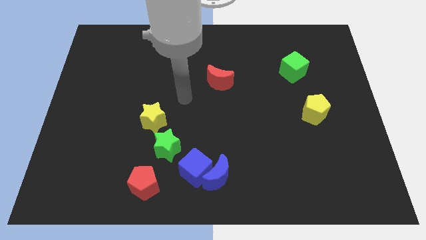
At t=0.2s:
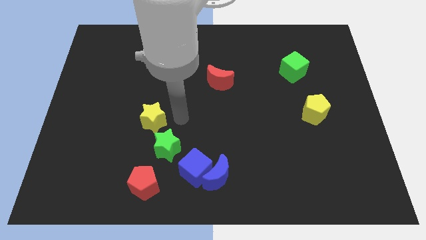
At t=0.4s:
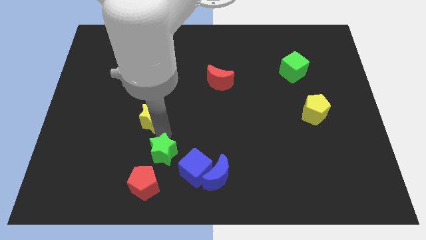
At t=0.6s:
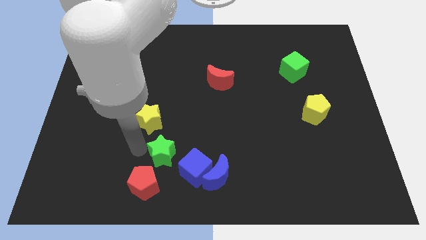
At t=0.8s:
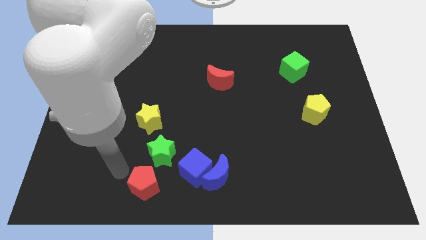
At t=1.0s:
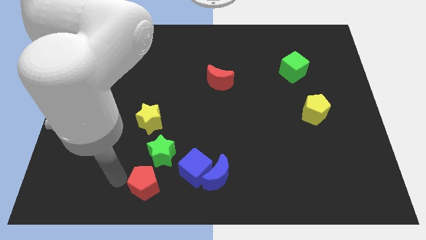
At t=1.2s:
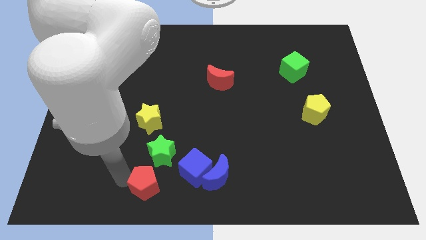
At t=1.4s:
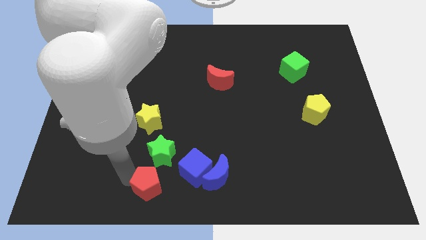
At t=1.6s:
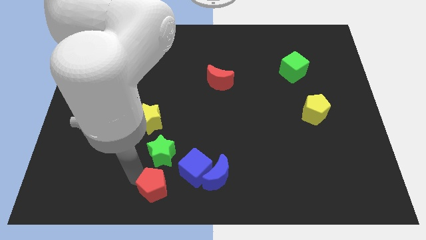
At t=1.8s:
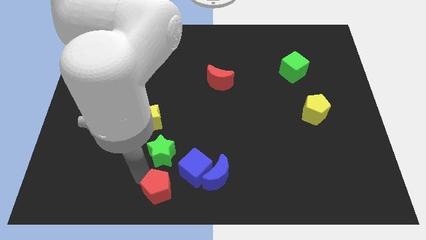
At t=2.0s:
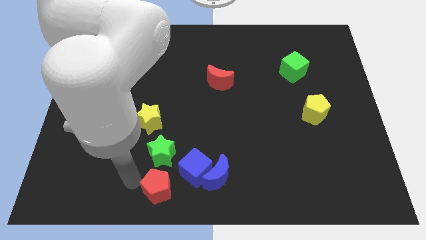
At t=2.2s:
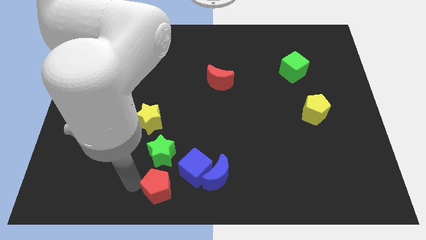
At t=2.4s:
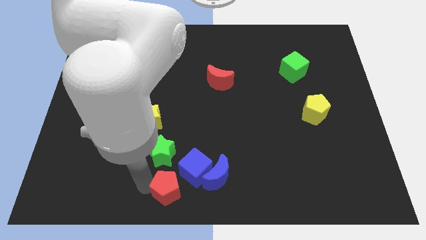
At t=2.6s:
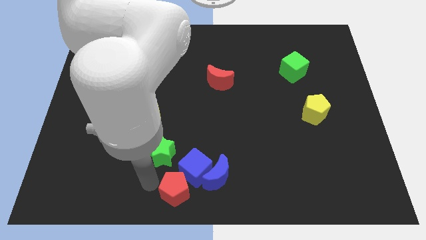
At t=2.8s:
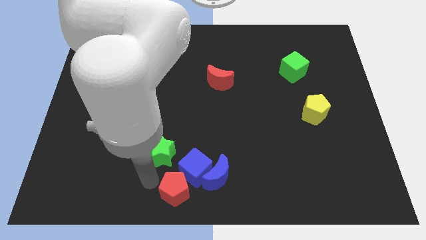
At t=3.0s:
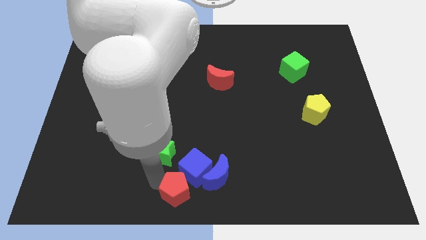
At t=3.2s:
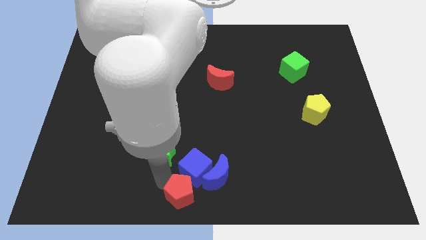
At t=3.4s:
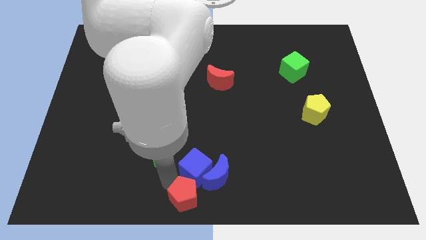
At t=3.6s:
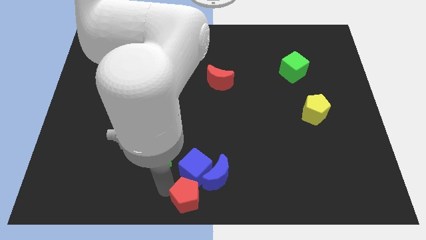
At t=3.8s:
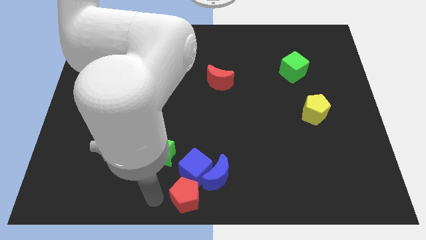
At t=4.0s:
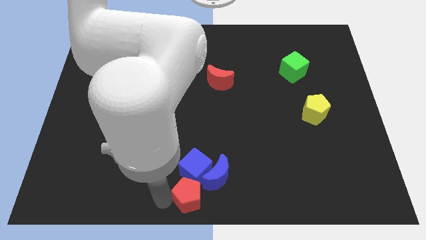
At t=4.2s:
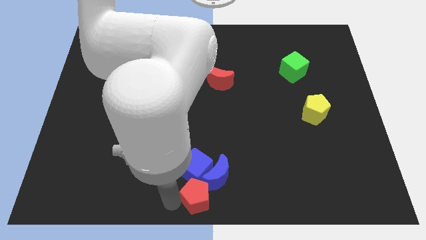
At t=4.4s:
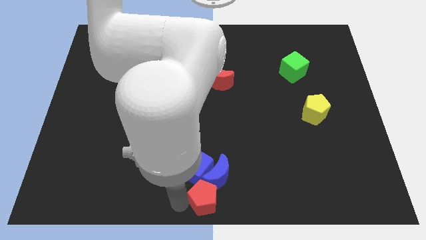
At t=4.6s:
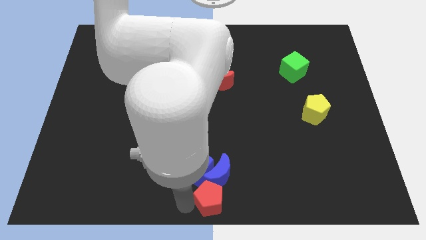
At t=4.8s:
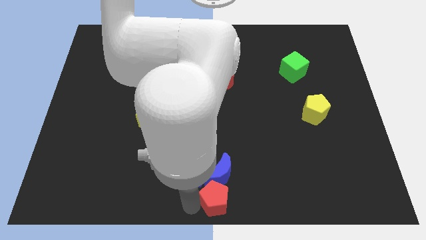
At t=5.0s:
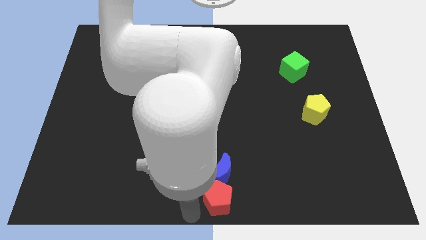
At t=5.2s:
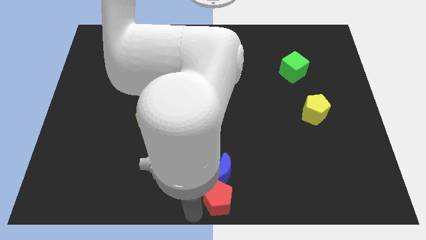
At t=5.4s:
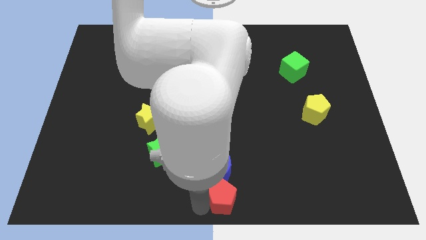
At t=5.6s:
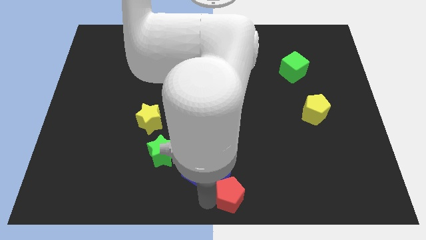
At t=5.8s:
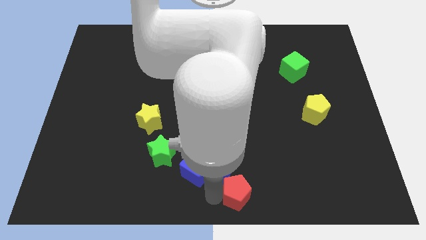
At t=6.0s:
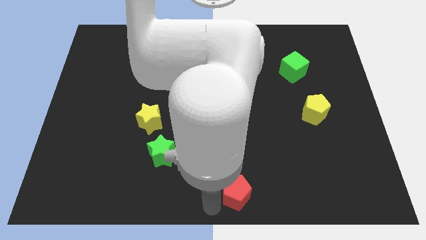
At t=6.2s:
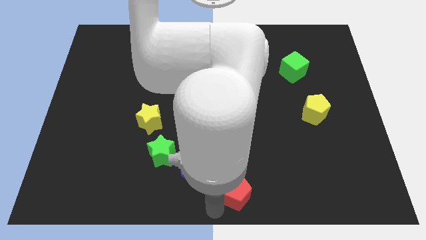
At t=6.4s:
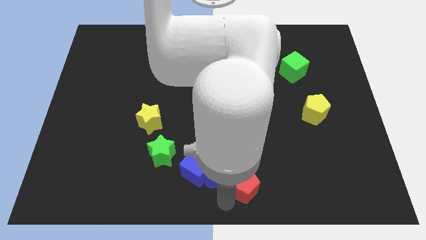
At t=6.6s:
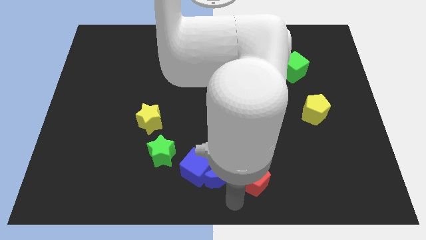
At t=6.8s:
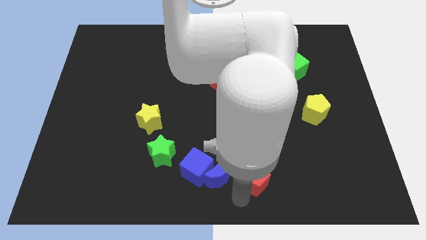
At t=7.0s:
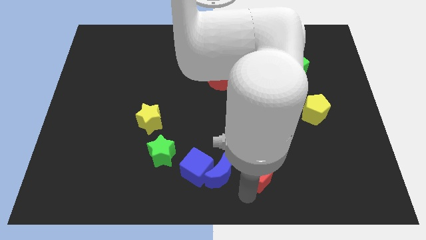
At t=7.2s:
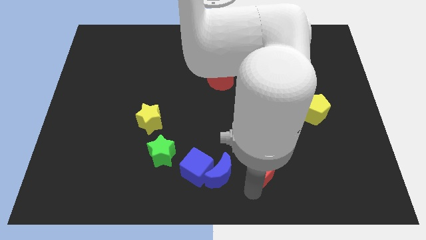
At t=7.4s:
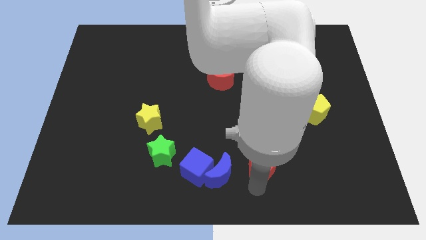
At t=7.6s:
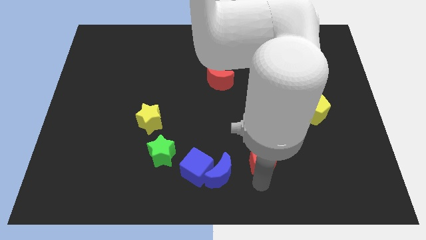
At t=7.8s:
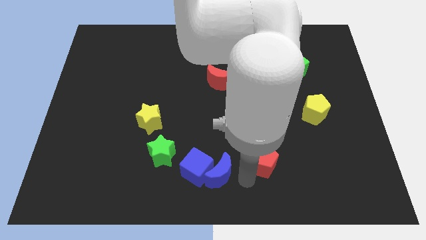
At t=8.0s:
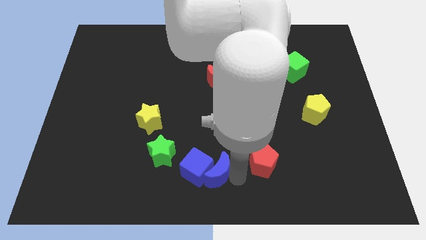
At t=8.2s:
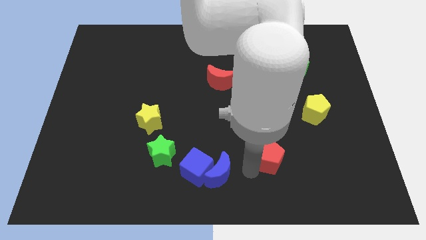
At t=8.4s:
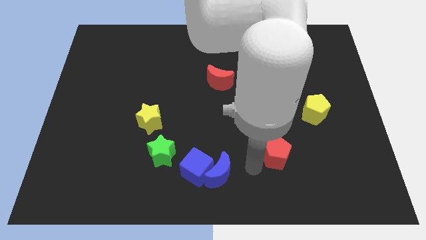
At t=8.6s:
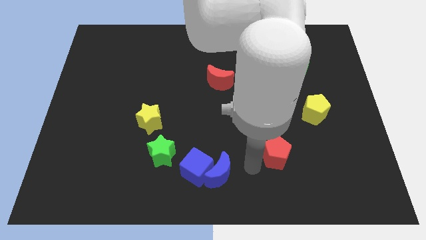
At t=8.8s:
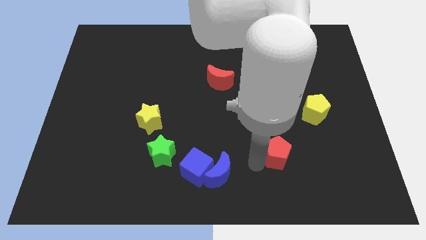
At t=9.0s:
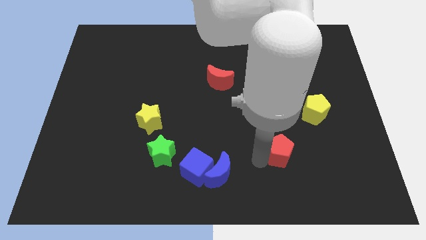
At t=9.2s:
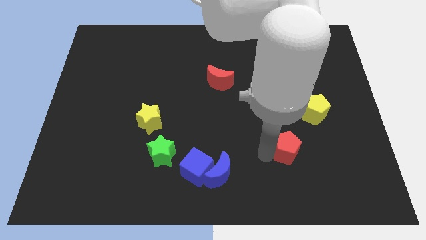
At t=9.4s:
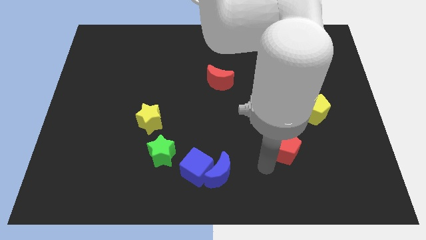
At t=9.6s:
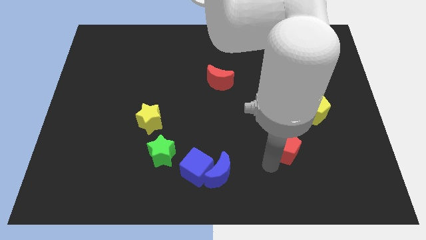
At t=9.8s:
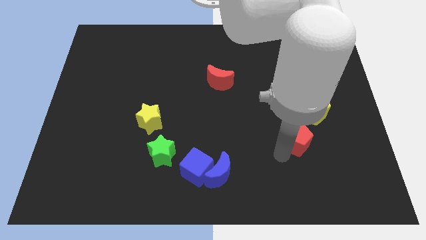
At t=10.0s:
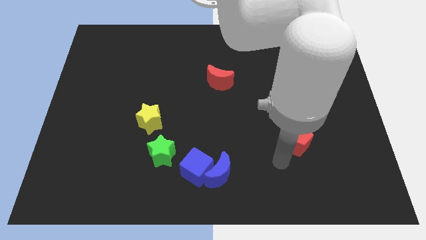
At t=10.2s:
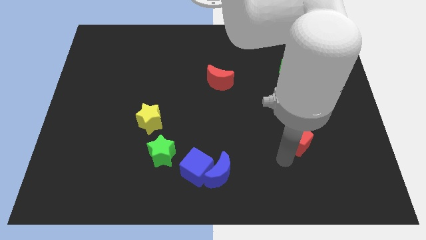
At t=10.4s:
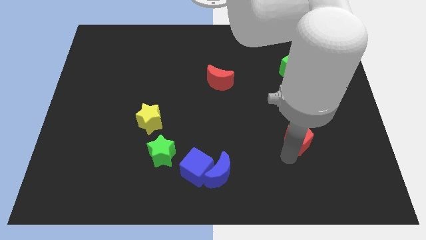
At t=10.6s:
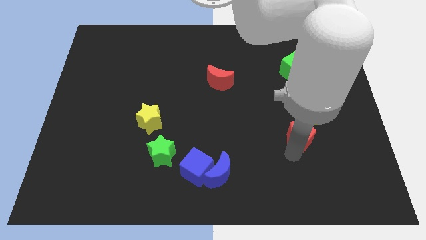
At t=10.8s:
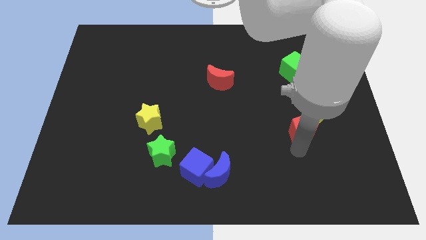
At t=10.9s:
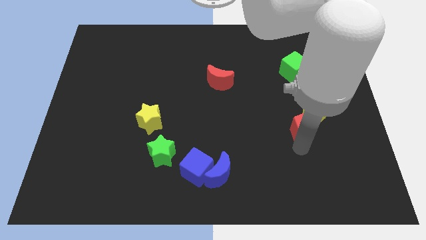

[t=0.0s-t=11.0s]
put the red pentagon next to the yellow pentagon

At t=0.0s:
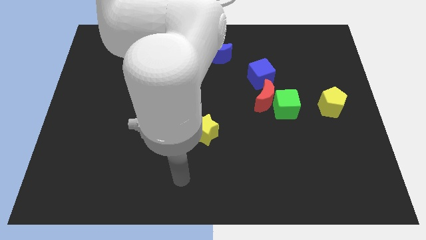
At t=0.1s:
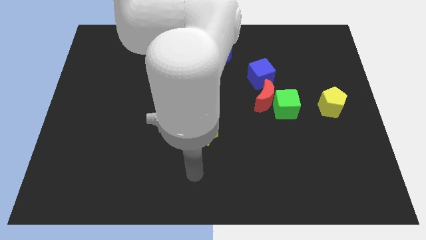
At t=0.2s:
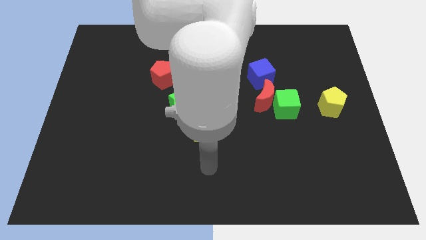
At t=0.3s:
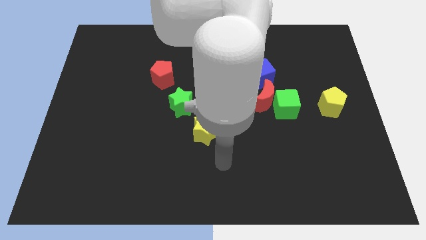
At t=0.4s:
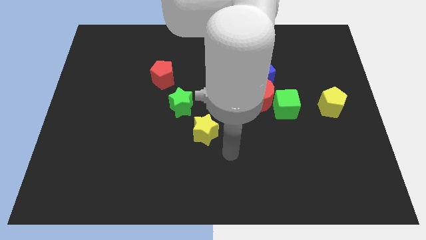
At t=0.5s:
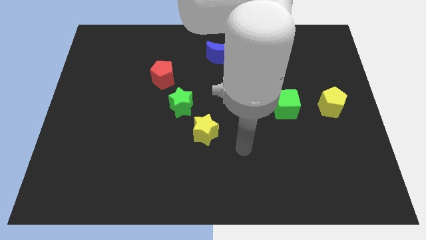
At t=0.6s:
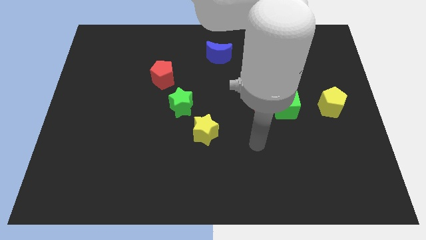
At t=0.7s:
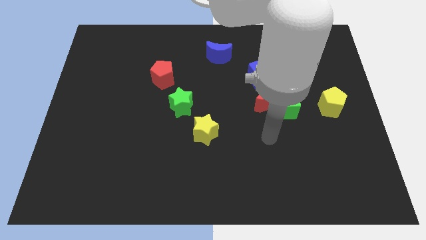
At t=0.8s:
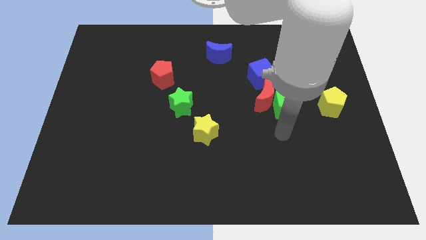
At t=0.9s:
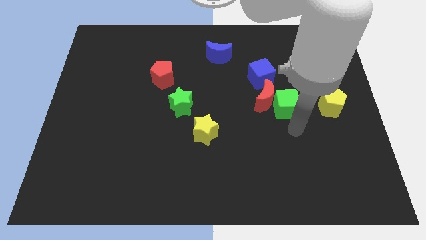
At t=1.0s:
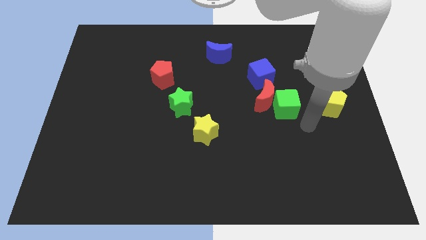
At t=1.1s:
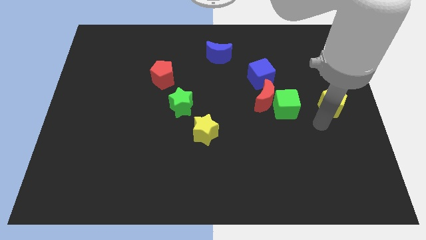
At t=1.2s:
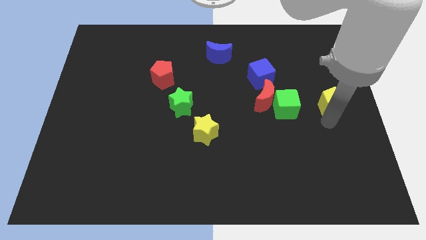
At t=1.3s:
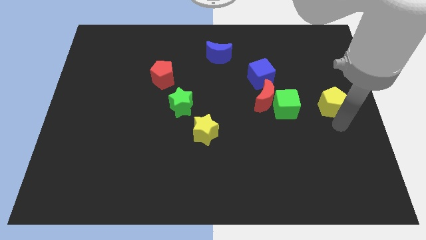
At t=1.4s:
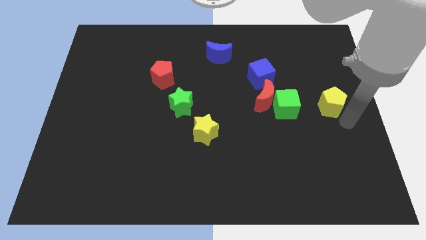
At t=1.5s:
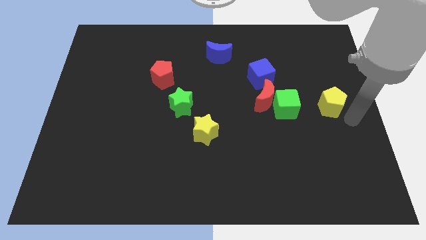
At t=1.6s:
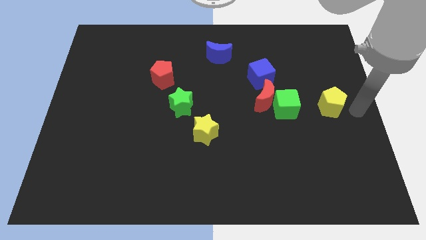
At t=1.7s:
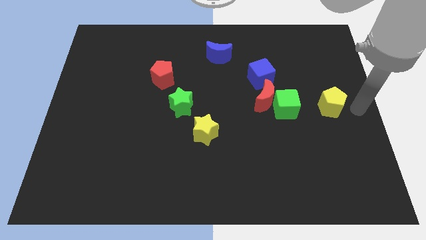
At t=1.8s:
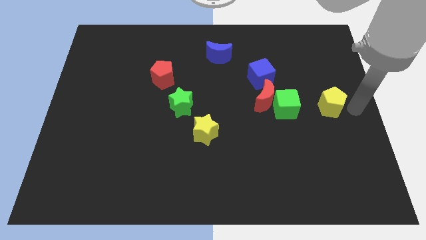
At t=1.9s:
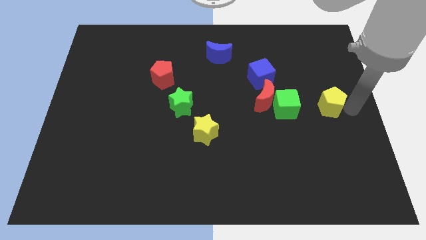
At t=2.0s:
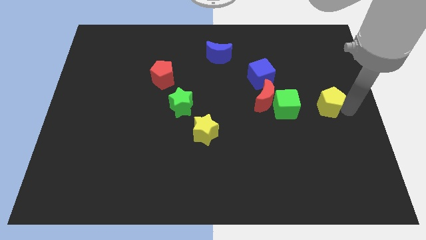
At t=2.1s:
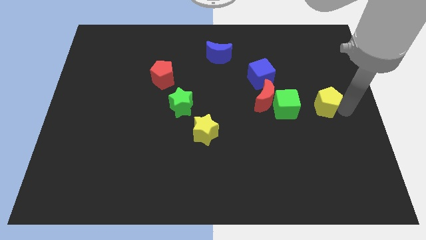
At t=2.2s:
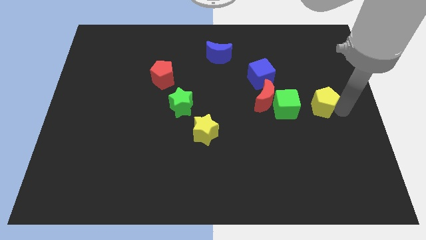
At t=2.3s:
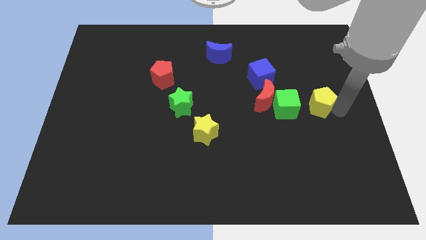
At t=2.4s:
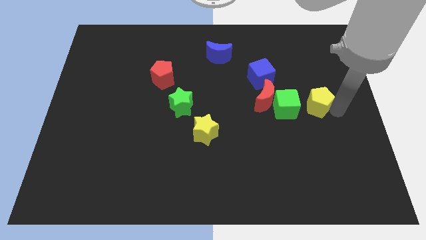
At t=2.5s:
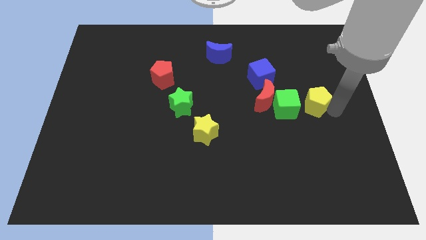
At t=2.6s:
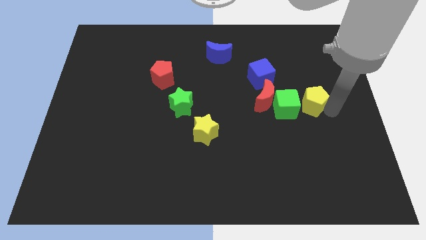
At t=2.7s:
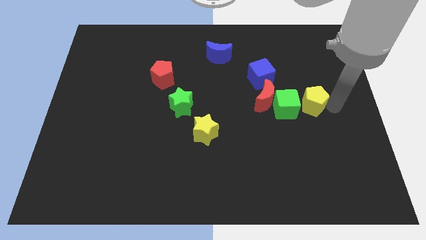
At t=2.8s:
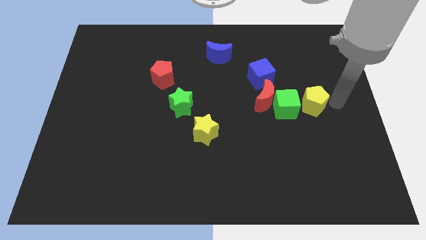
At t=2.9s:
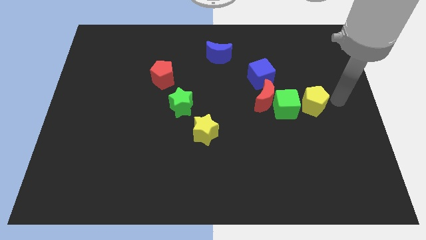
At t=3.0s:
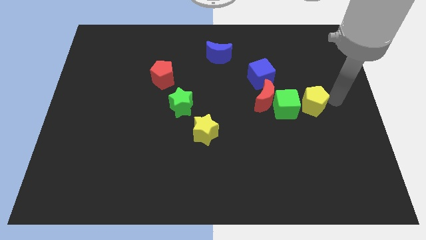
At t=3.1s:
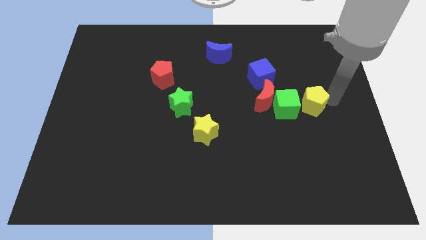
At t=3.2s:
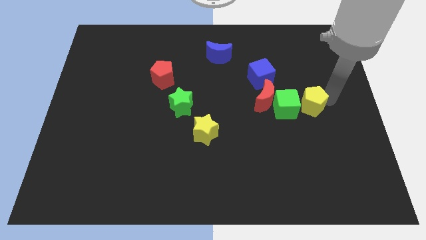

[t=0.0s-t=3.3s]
push the yellow pentagon close to the green cube
